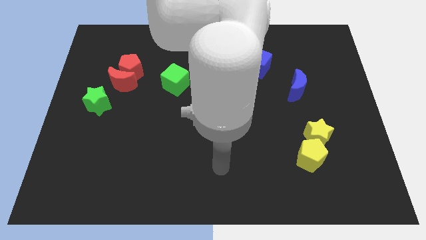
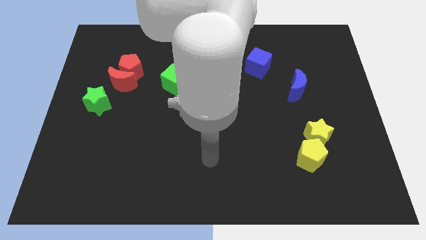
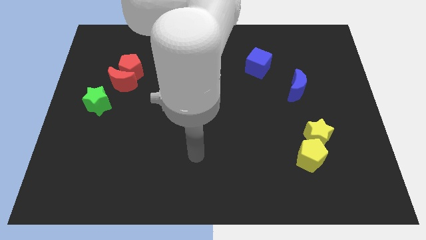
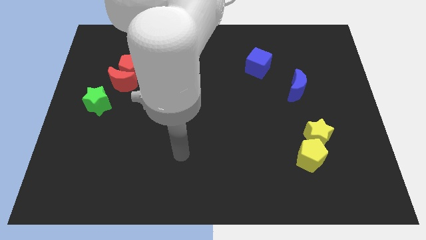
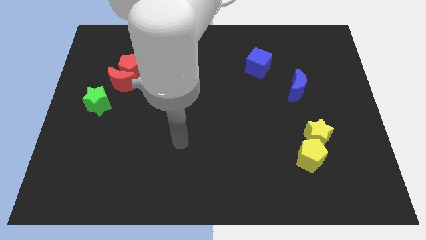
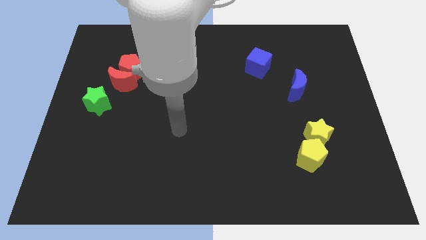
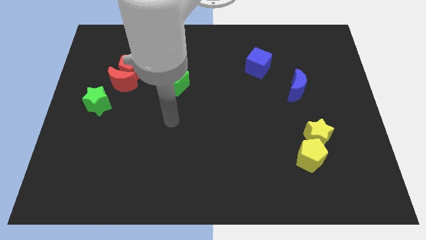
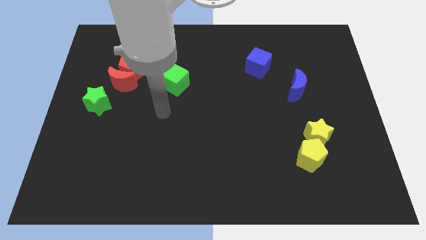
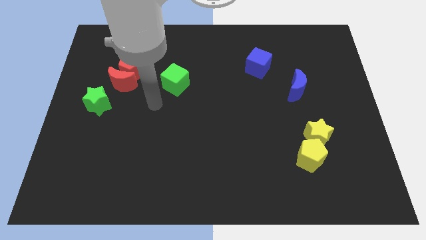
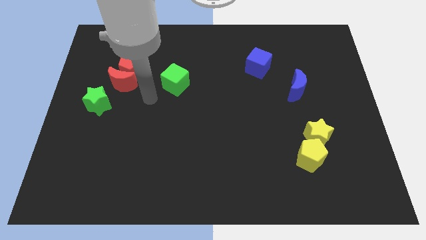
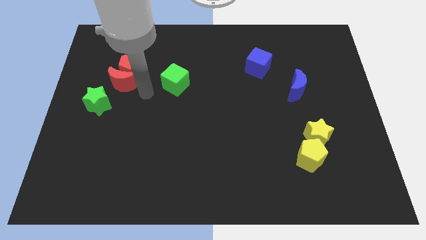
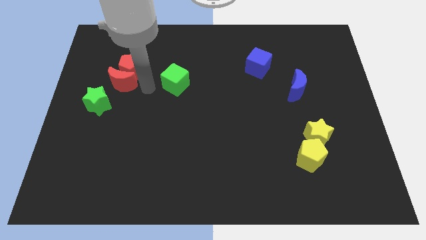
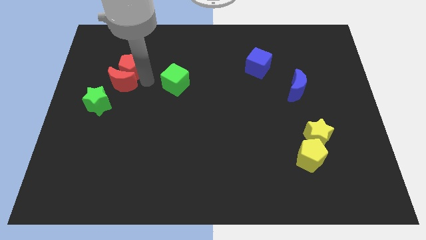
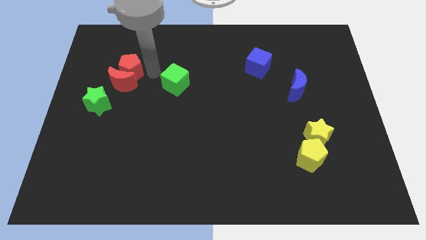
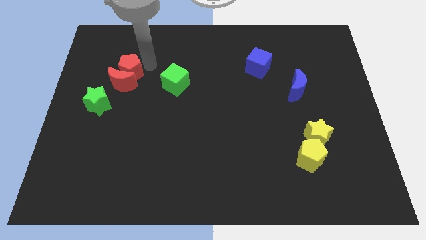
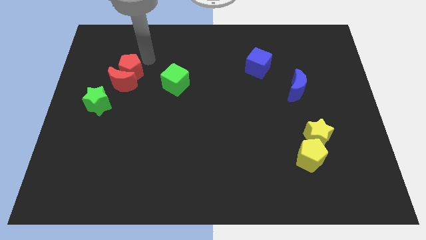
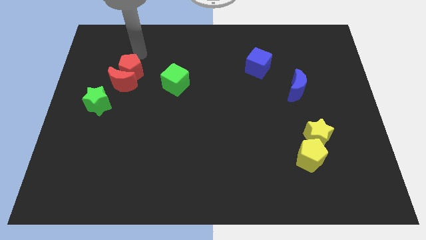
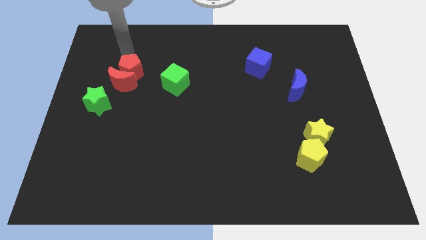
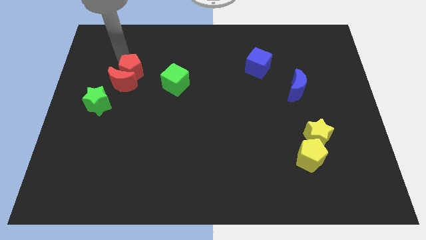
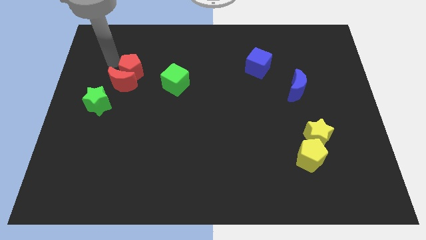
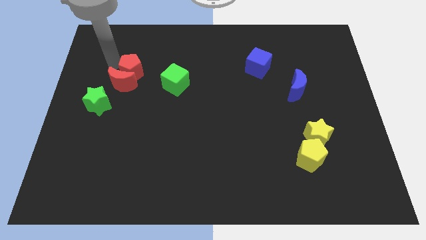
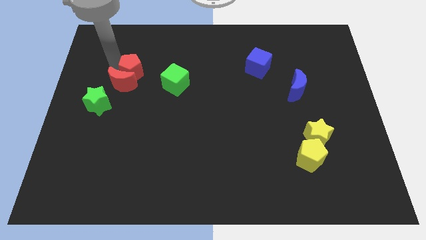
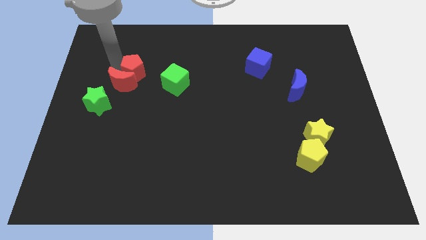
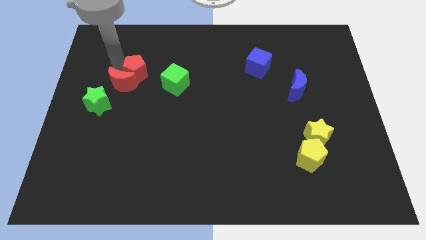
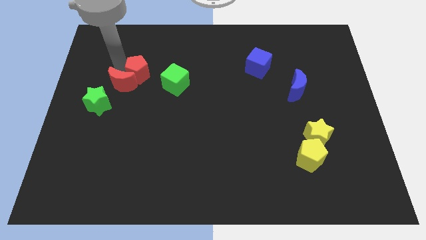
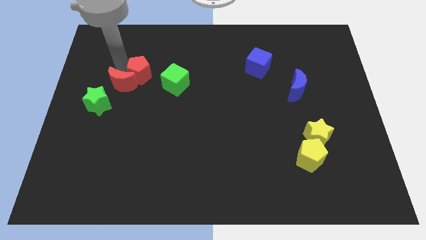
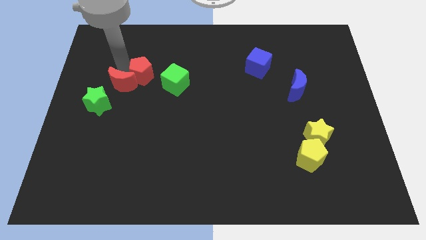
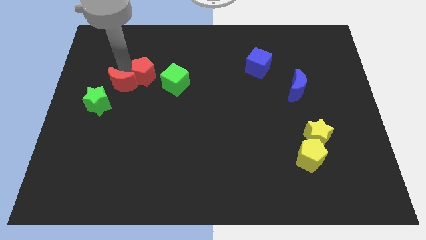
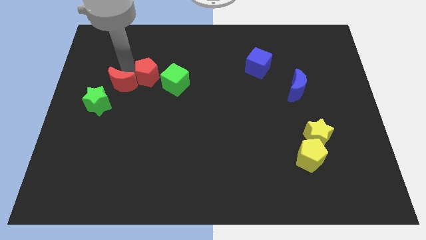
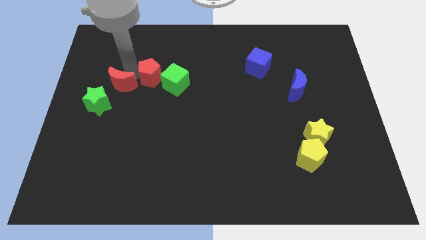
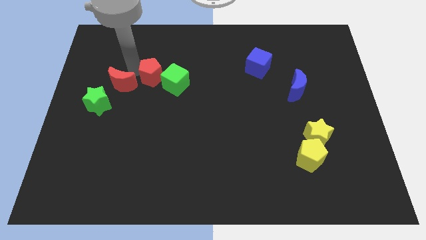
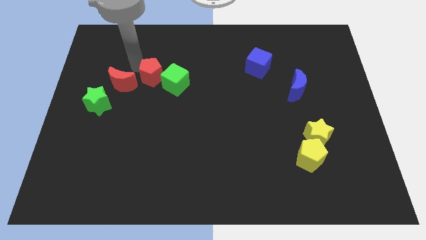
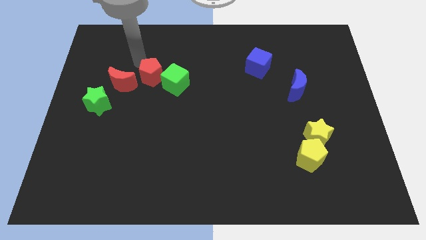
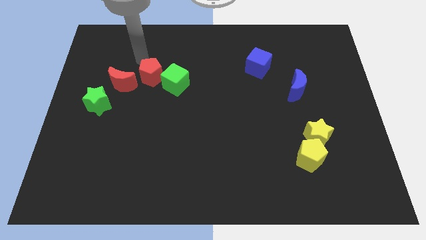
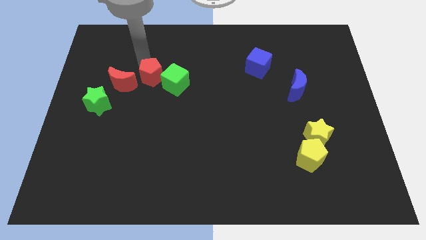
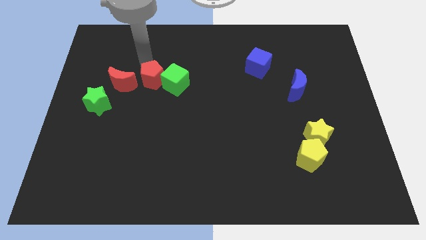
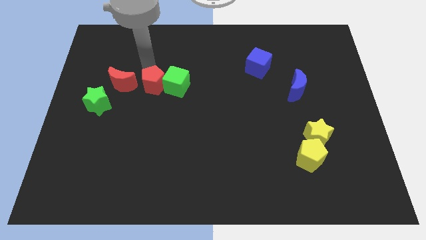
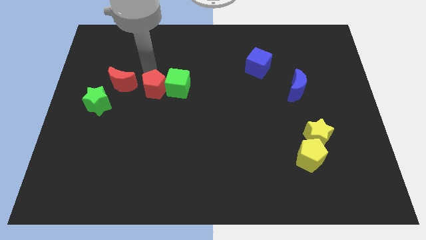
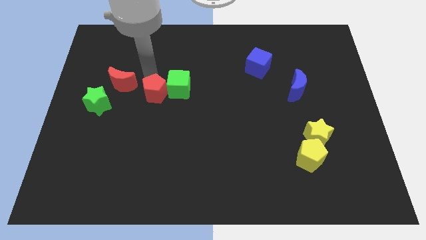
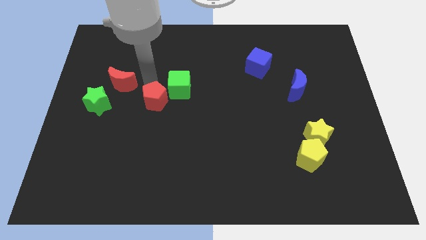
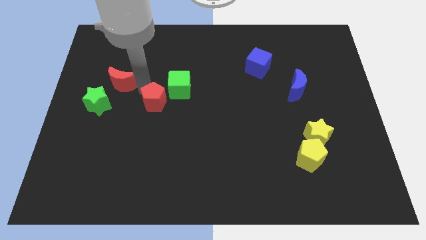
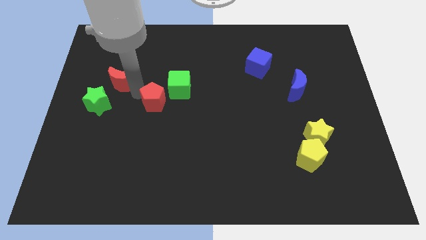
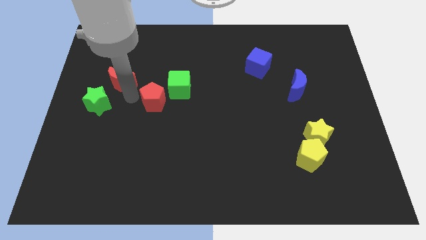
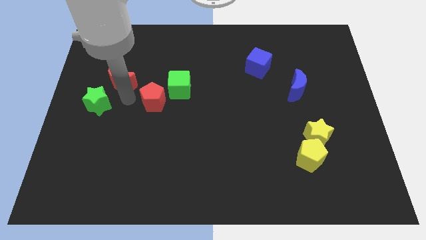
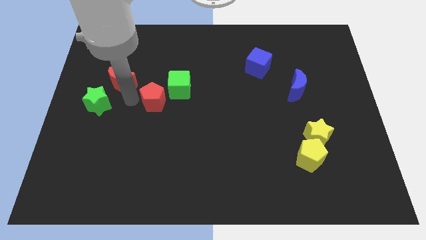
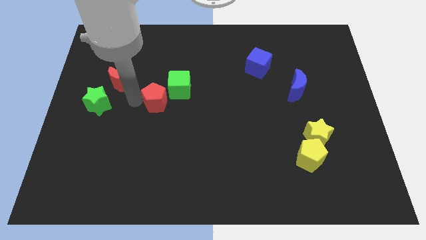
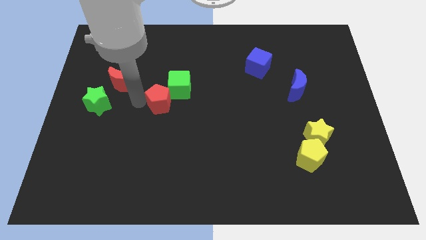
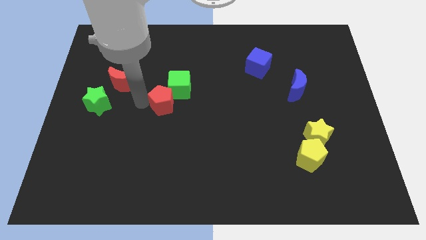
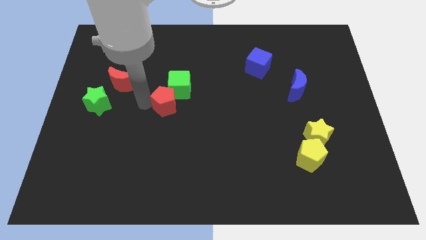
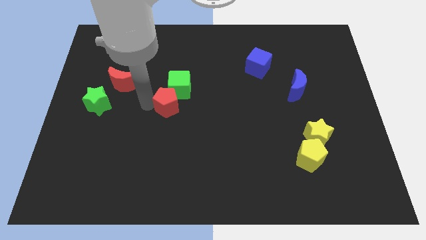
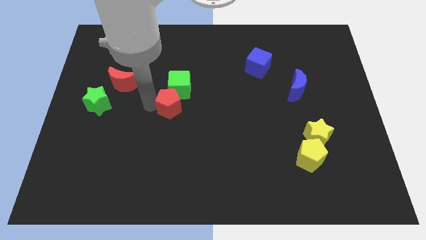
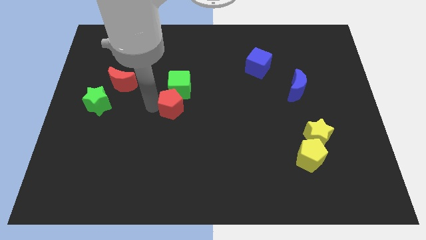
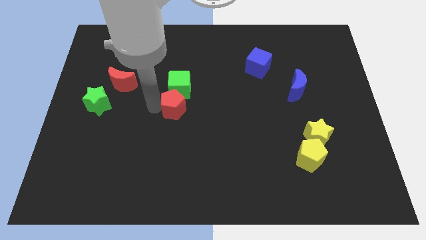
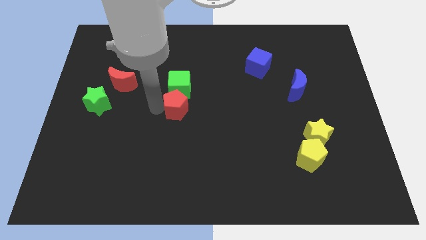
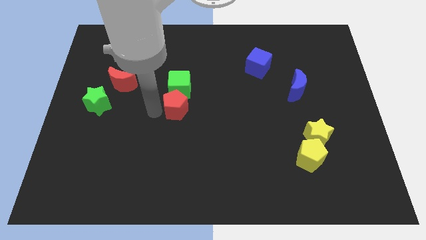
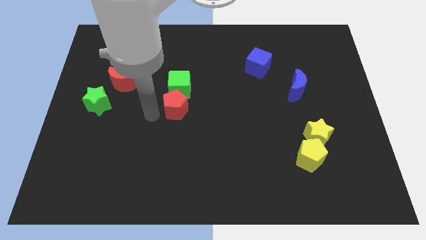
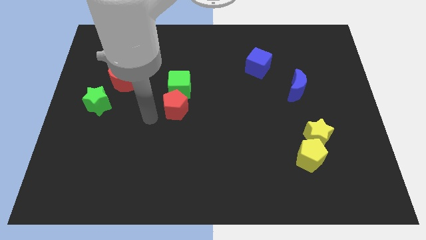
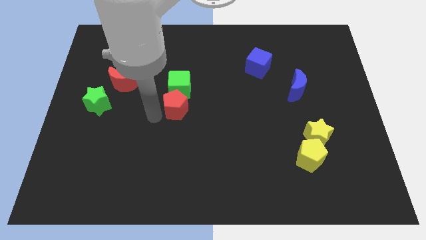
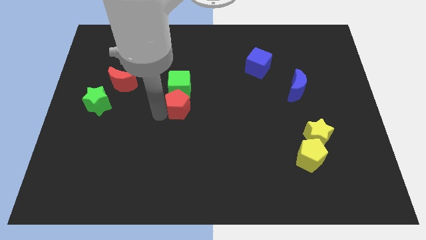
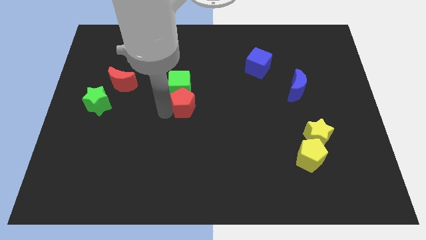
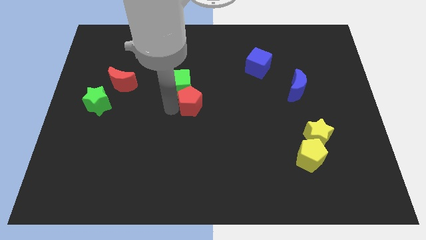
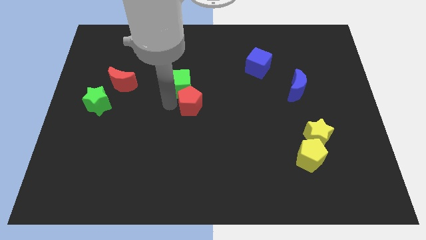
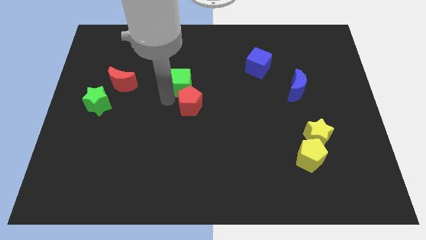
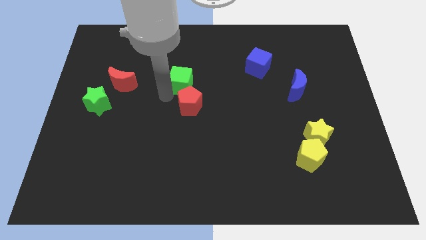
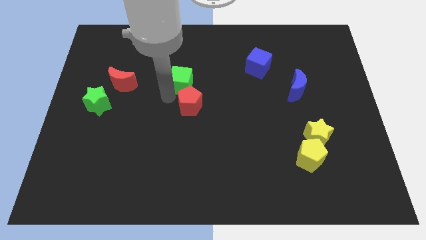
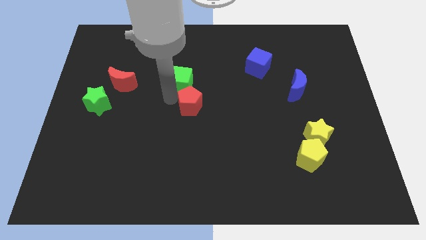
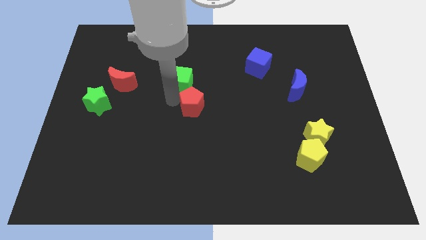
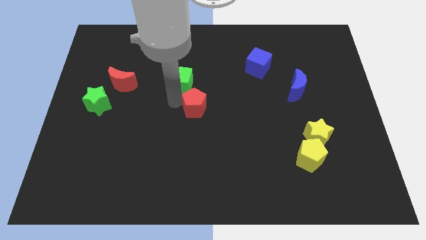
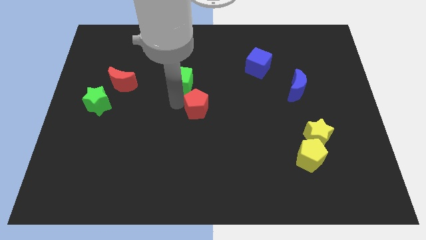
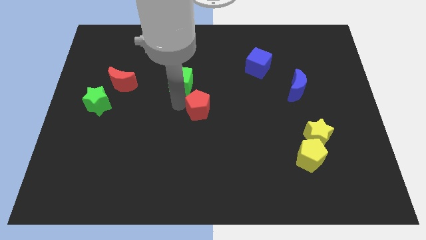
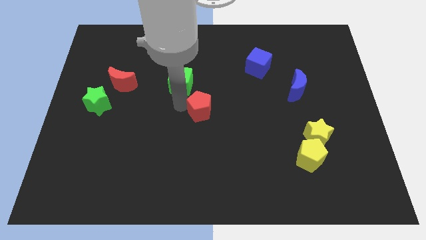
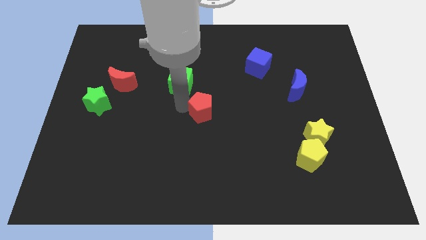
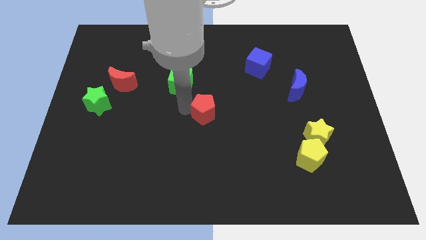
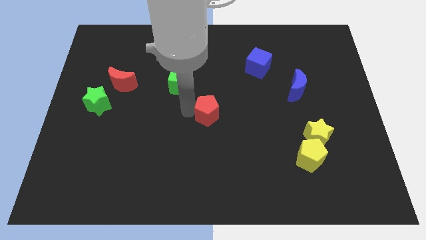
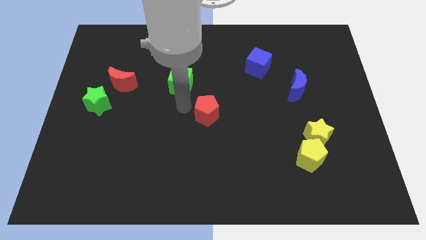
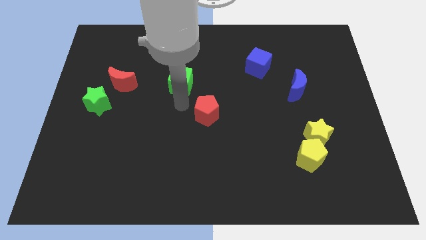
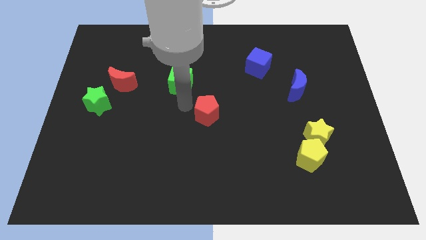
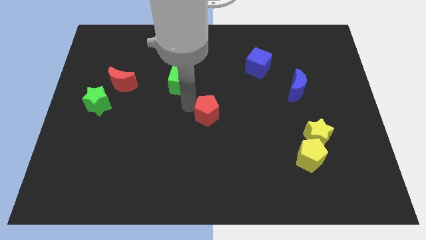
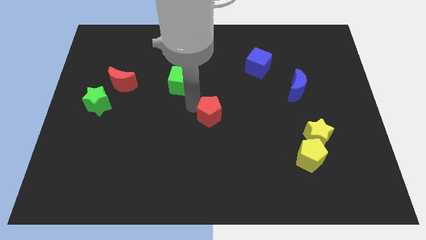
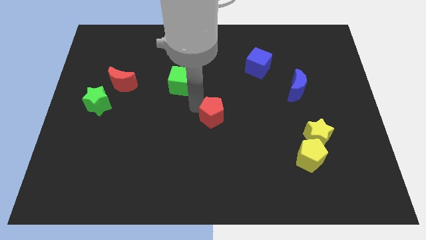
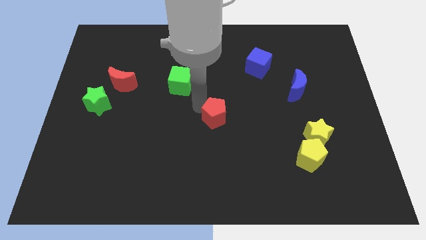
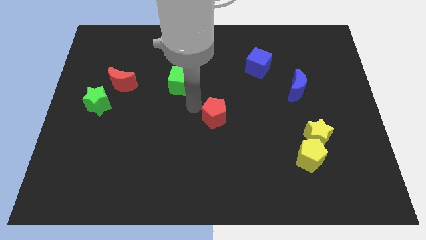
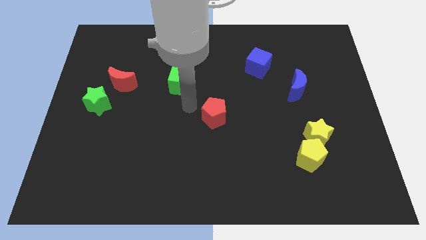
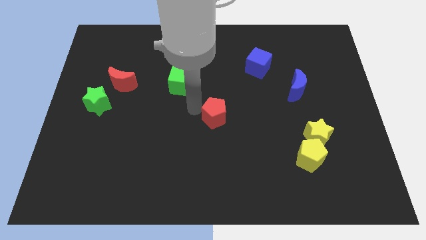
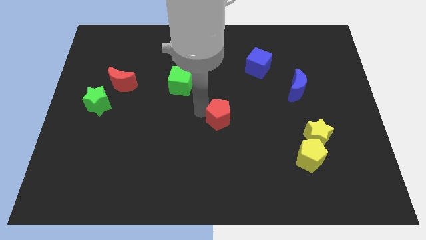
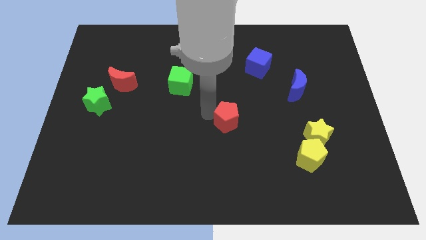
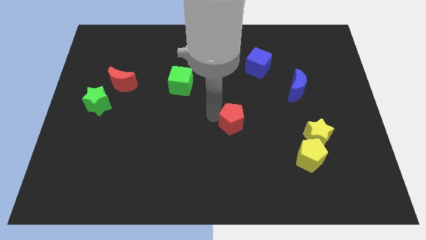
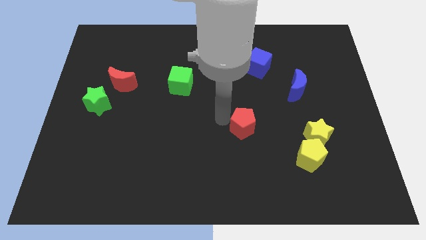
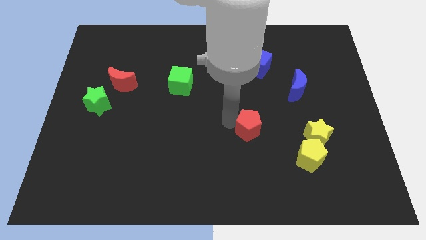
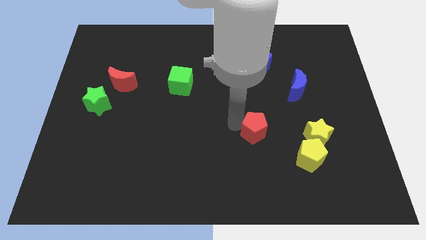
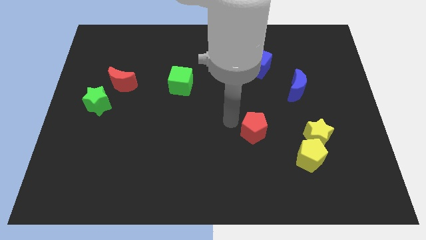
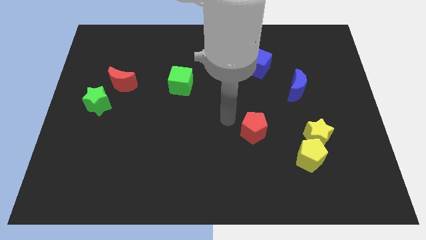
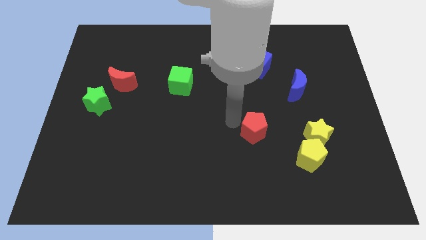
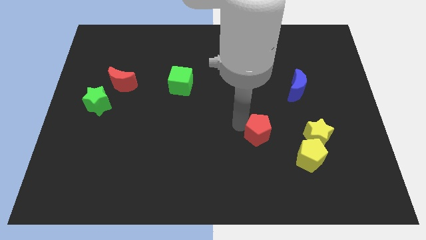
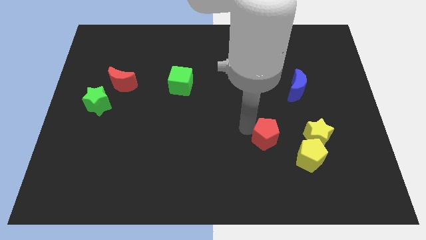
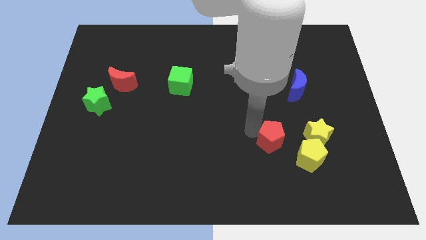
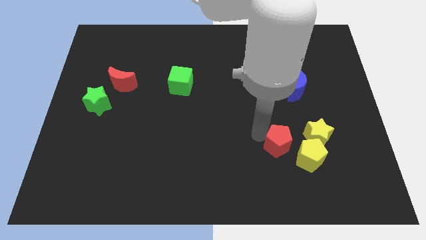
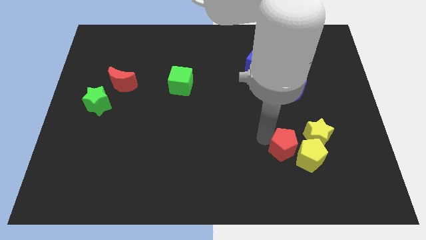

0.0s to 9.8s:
slide the red pentagon next to the yellow pentagon
